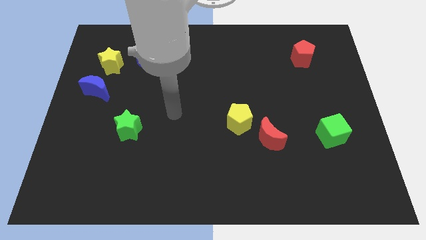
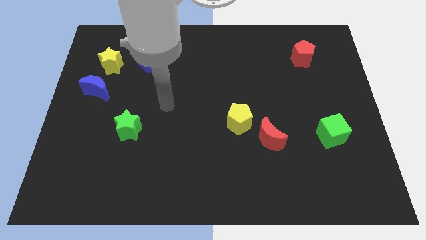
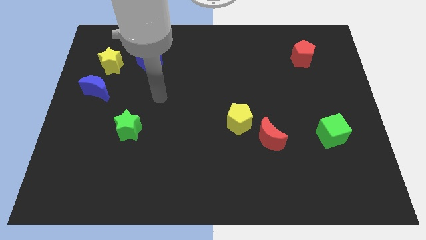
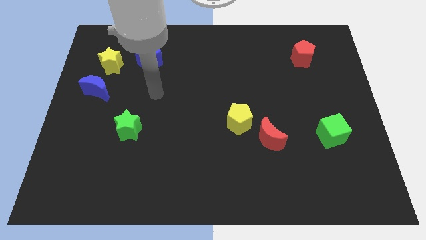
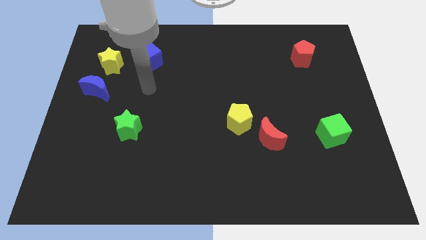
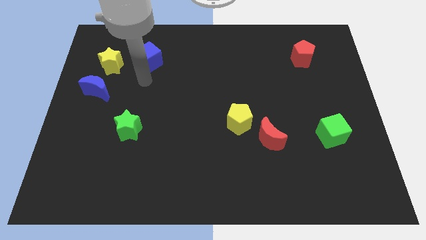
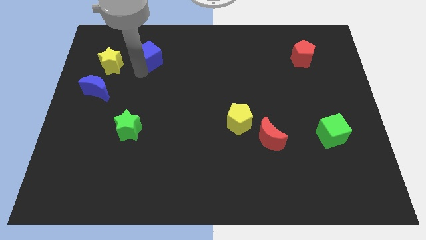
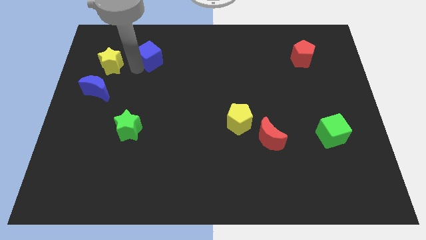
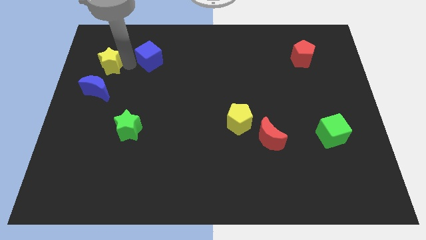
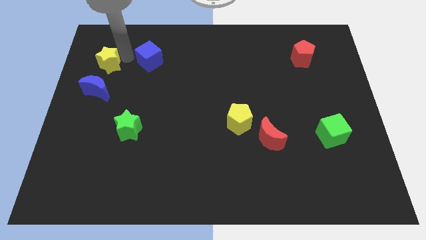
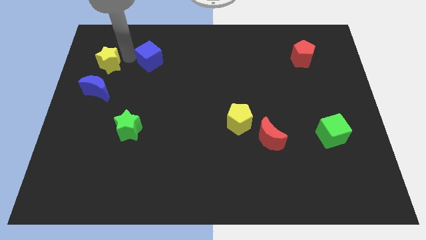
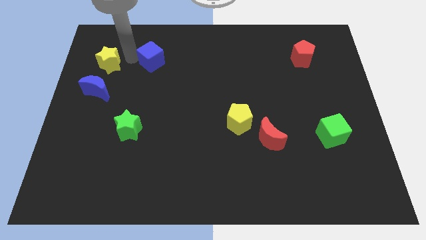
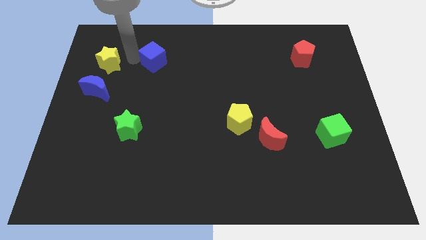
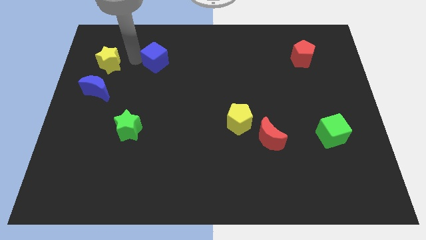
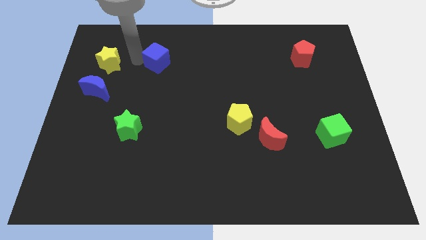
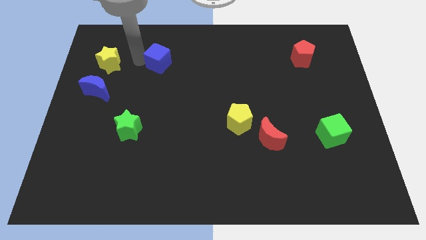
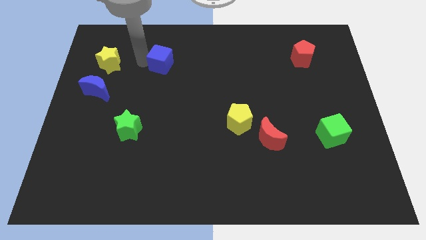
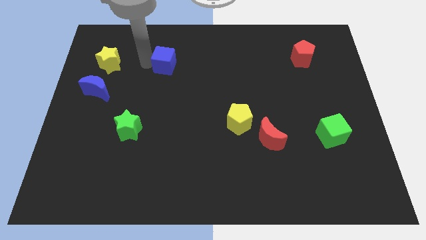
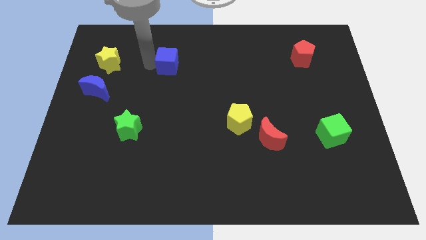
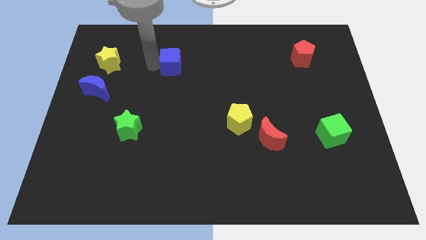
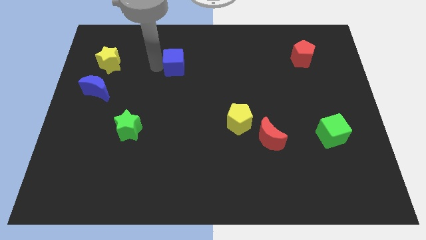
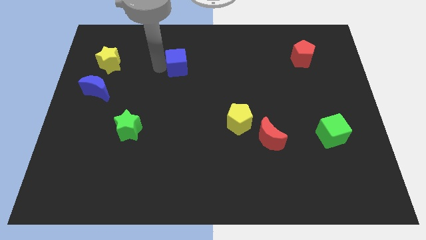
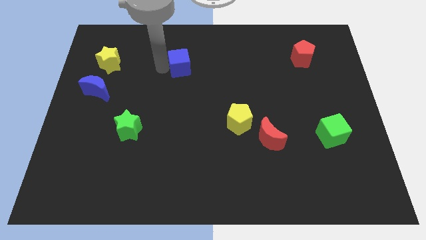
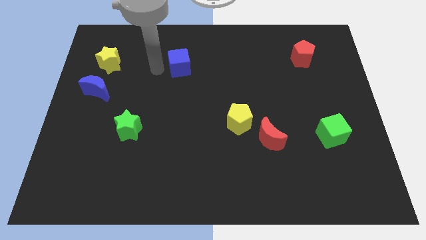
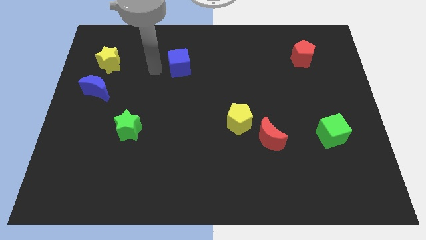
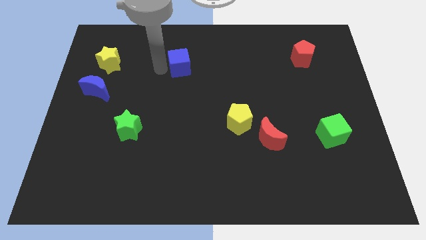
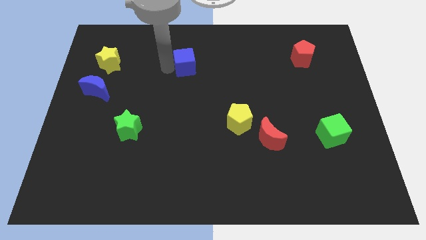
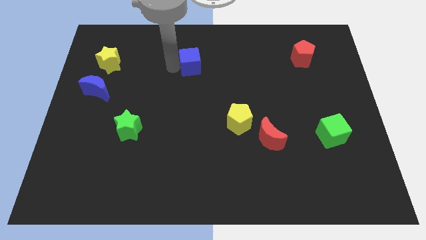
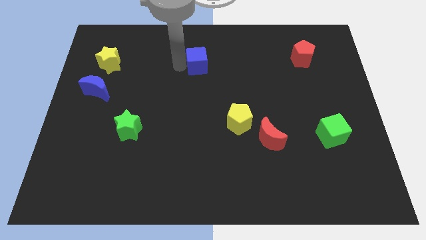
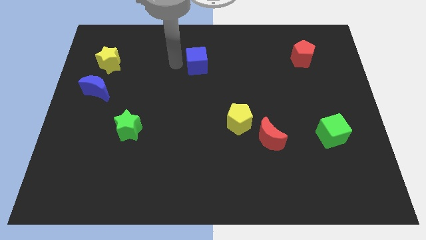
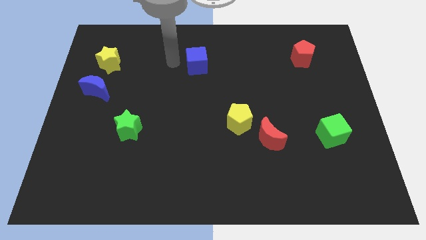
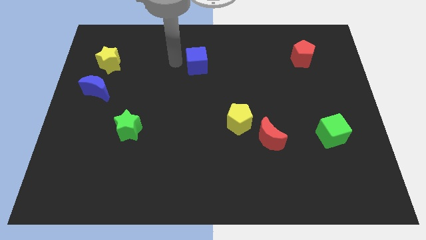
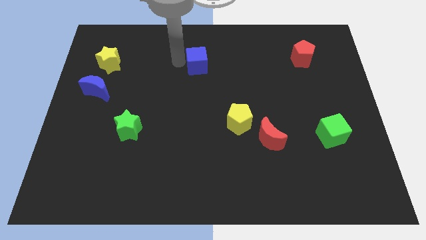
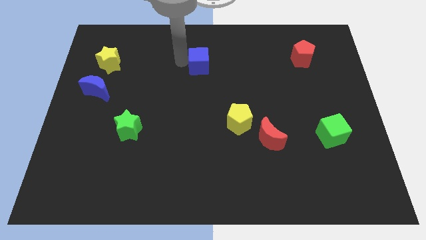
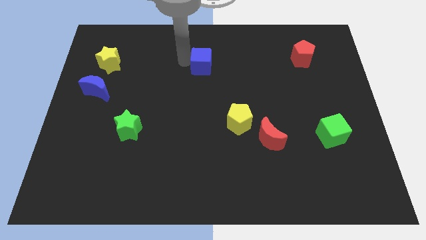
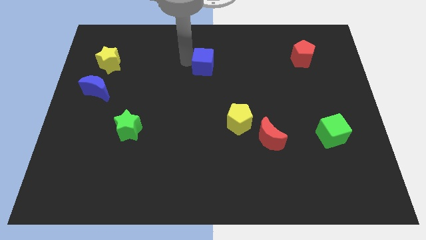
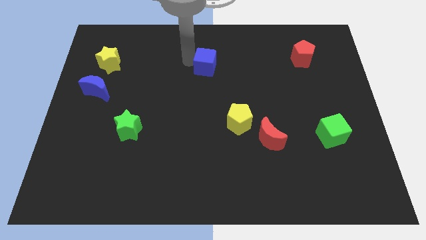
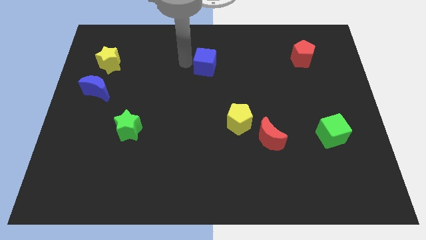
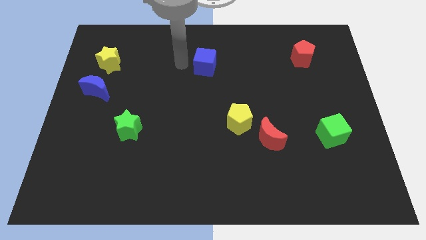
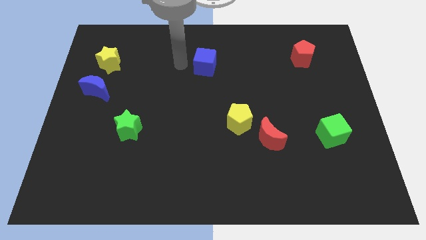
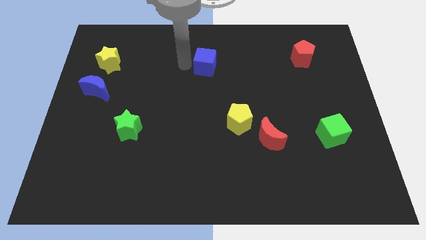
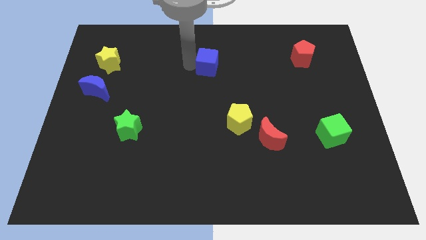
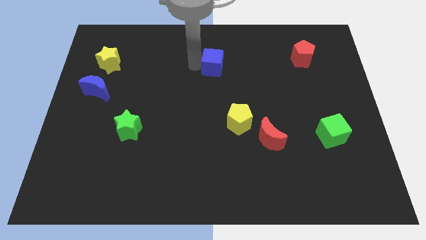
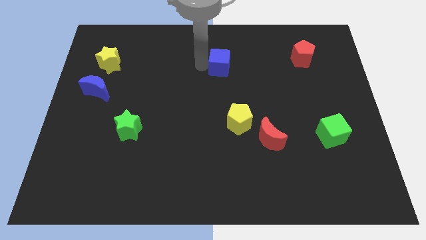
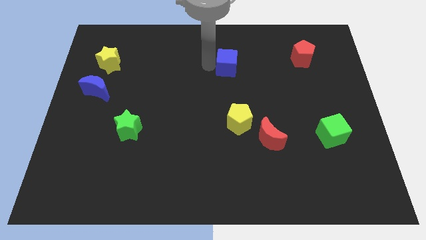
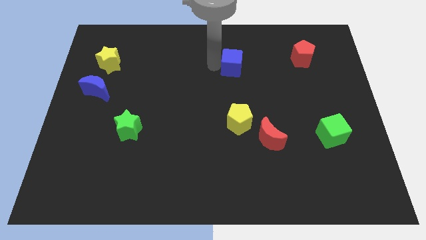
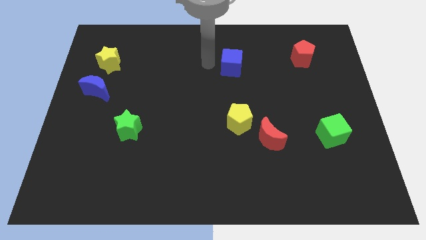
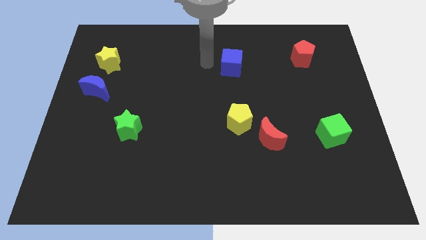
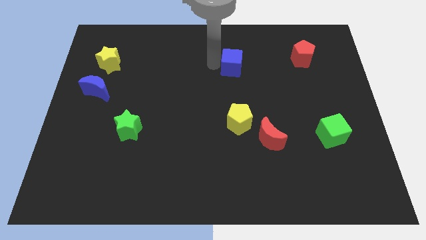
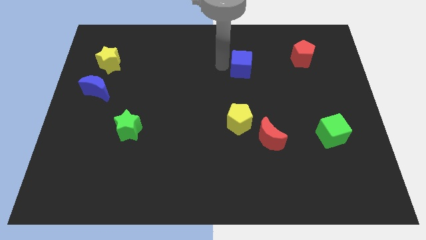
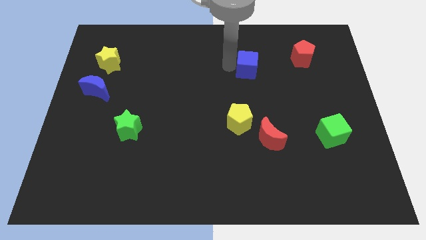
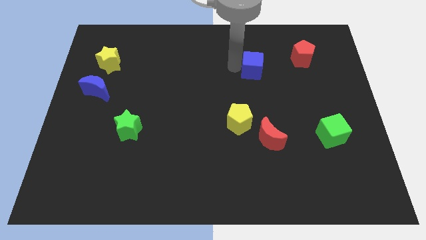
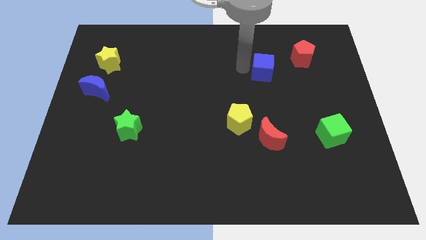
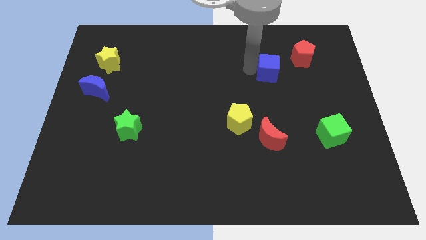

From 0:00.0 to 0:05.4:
push the blue cube to the bottom left of the red pentagon

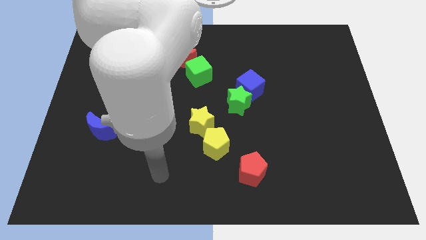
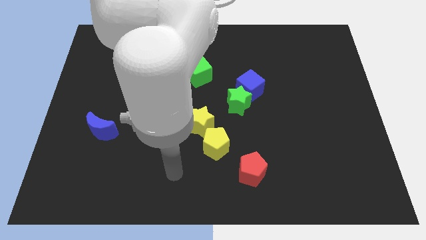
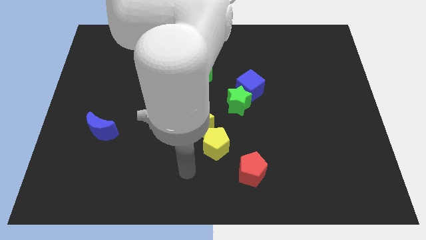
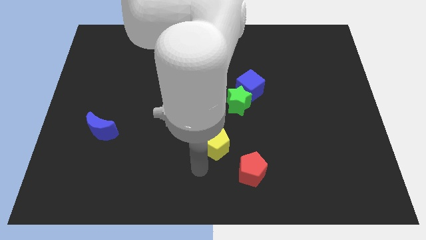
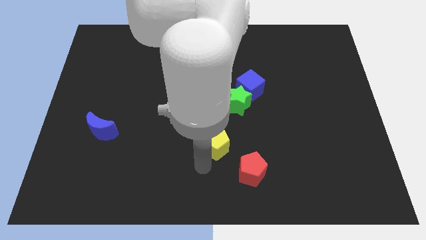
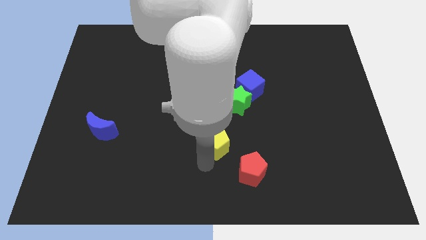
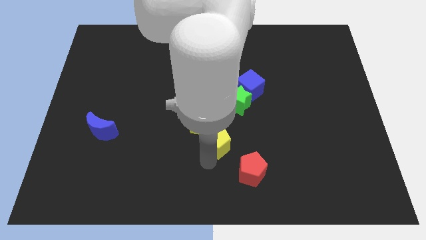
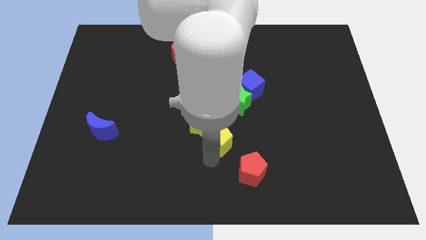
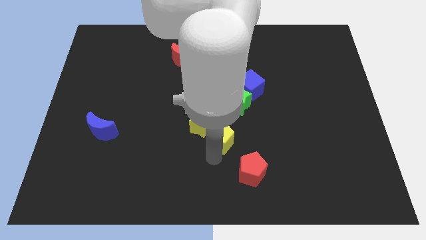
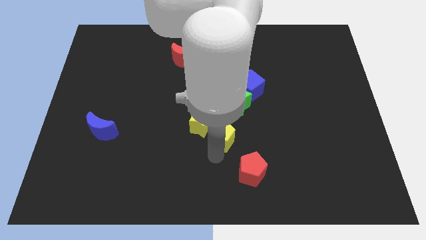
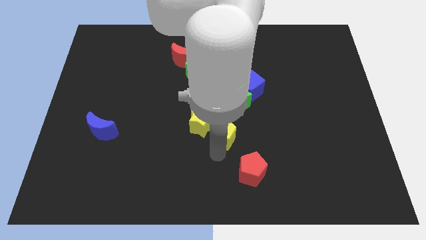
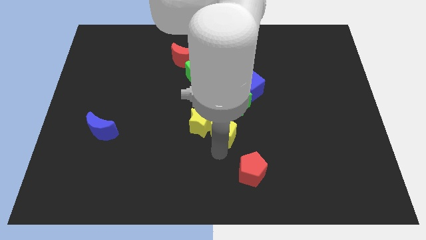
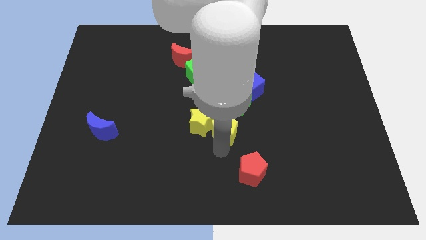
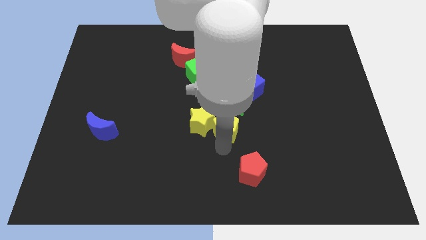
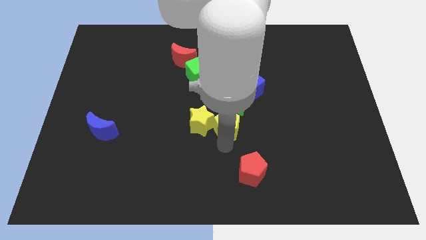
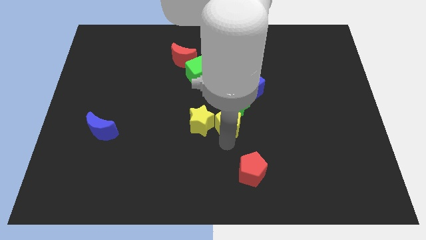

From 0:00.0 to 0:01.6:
slide the yellow pentagon to the bottom left of the blue cube
